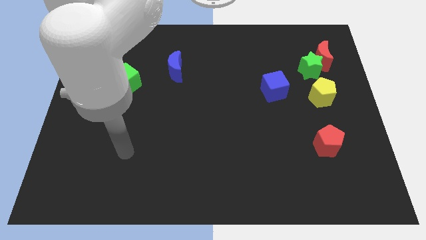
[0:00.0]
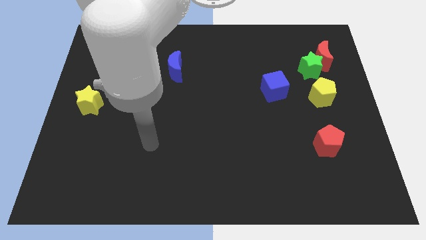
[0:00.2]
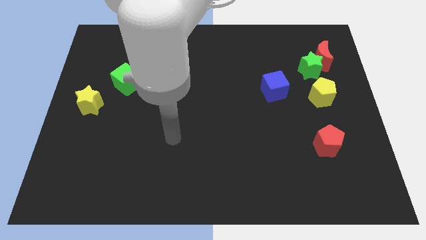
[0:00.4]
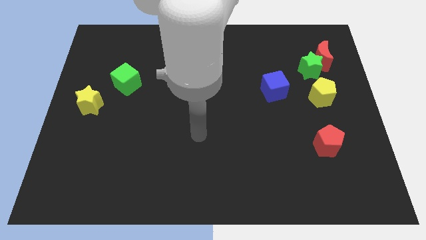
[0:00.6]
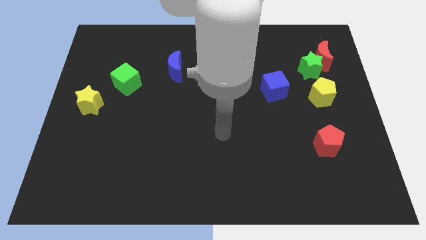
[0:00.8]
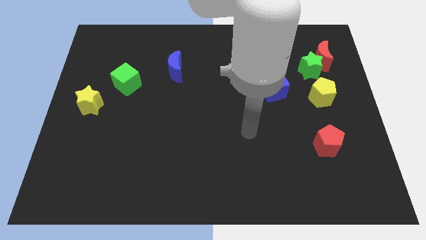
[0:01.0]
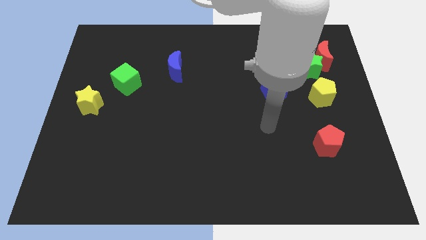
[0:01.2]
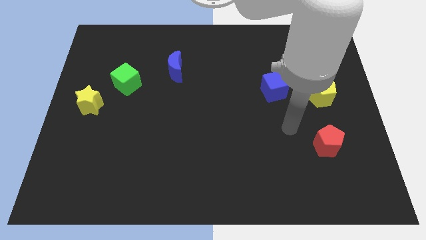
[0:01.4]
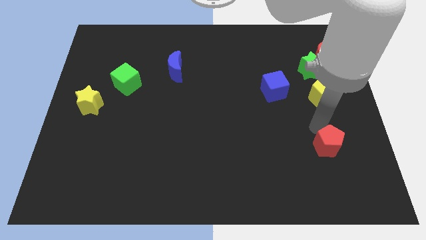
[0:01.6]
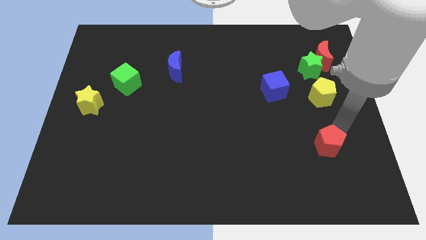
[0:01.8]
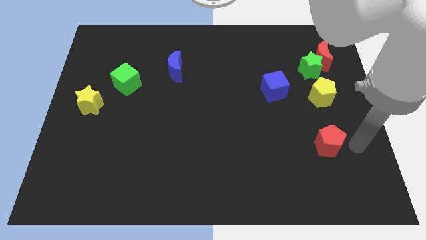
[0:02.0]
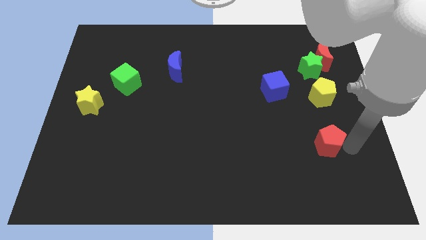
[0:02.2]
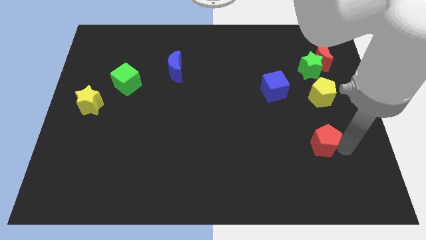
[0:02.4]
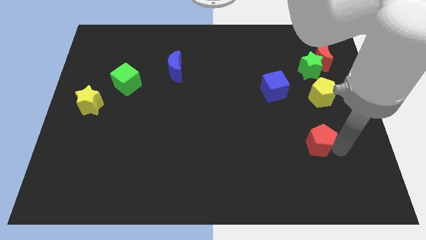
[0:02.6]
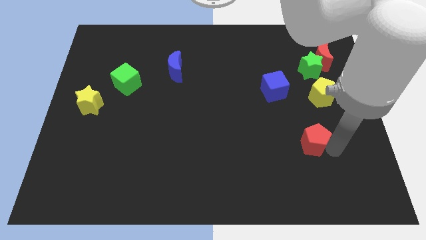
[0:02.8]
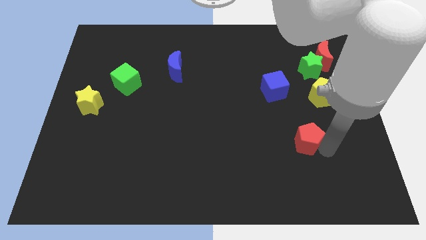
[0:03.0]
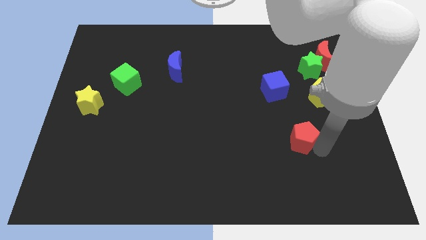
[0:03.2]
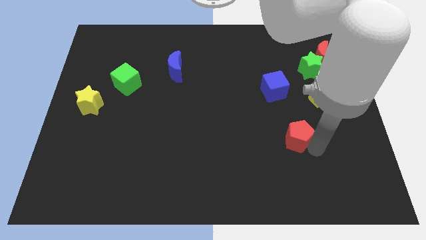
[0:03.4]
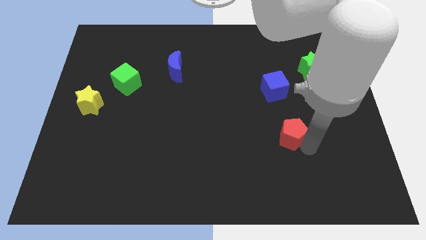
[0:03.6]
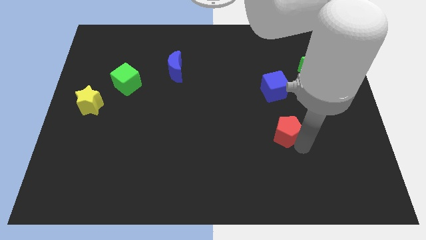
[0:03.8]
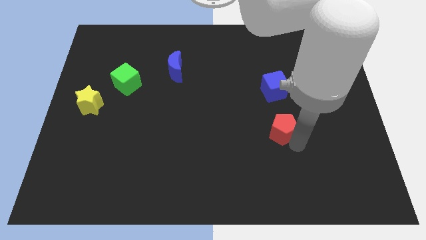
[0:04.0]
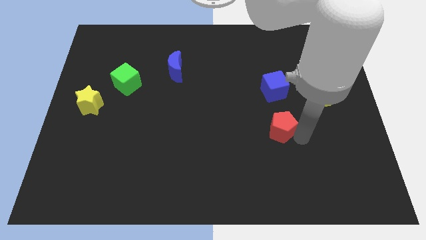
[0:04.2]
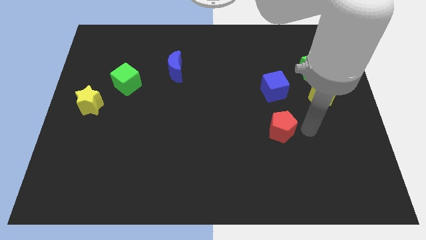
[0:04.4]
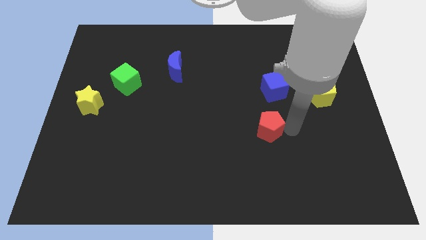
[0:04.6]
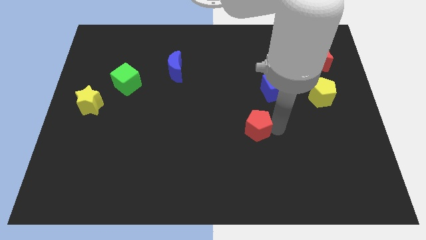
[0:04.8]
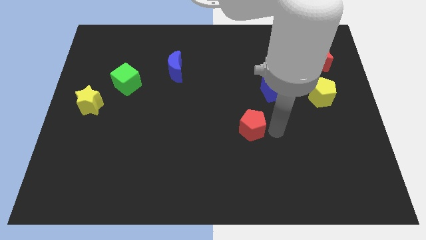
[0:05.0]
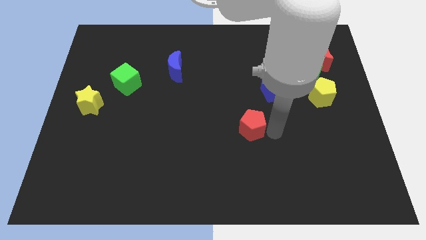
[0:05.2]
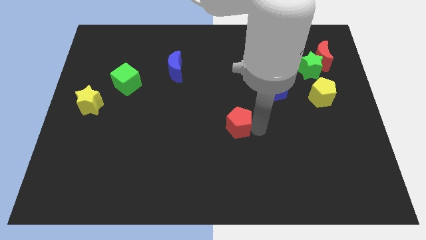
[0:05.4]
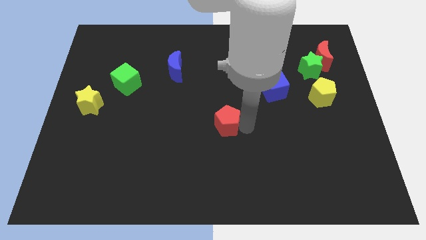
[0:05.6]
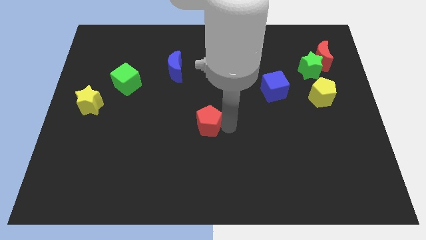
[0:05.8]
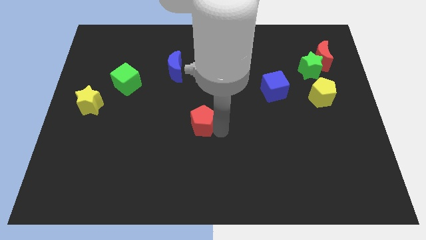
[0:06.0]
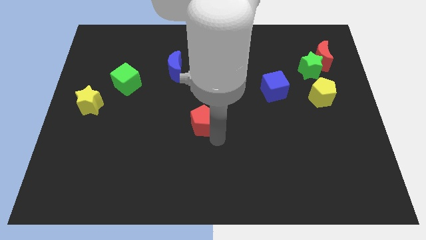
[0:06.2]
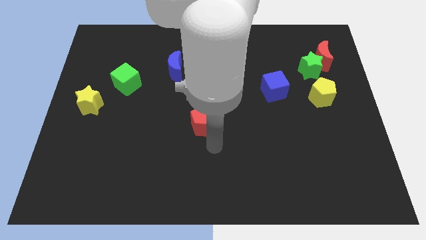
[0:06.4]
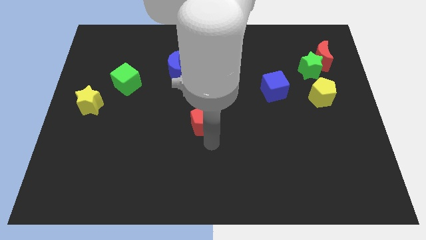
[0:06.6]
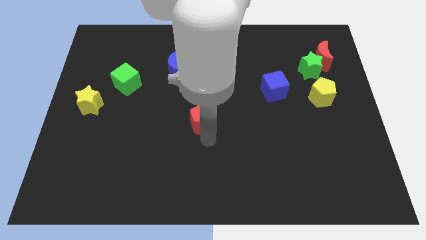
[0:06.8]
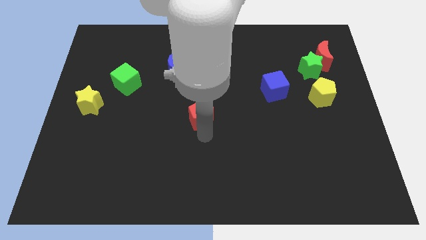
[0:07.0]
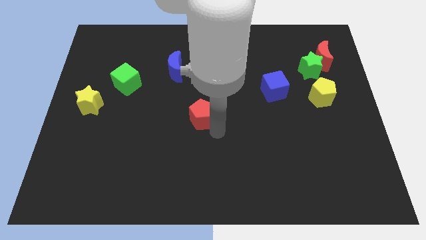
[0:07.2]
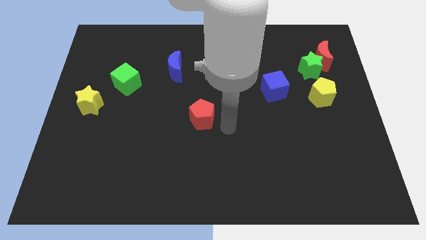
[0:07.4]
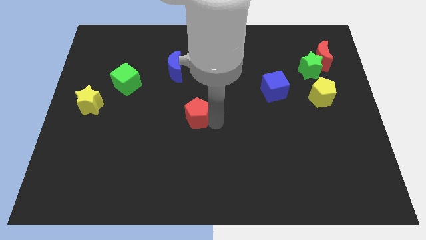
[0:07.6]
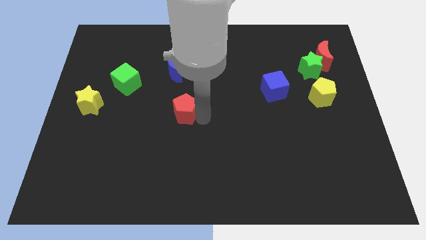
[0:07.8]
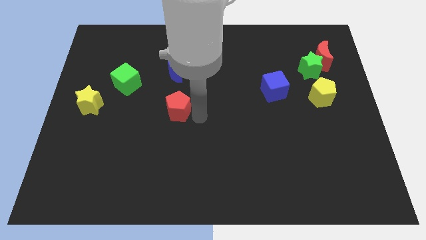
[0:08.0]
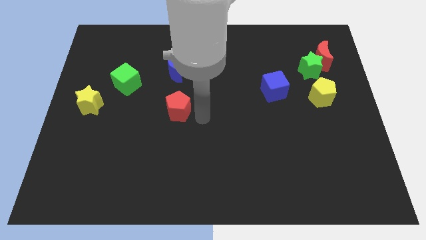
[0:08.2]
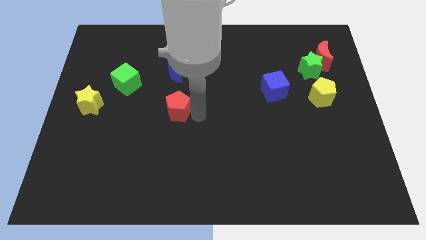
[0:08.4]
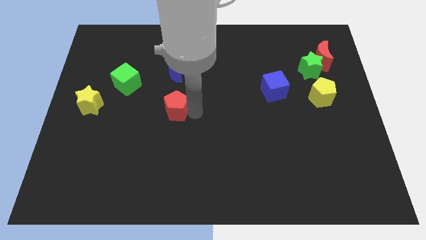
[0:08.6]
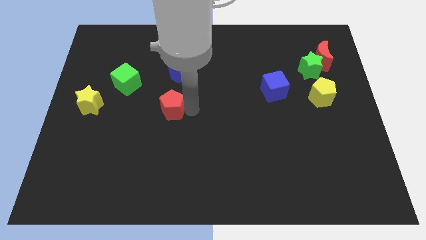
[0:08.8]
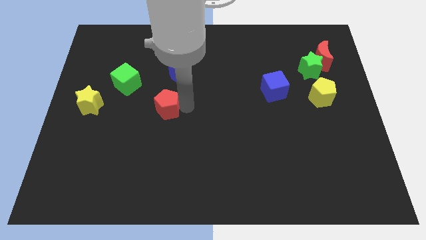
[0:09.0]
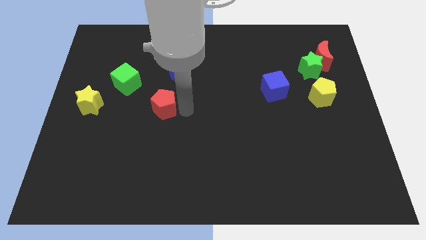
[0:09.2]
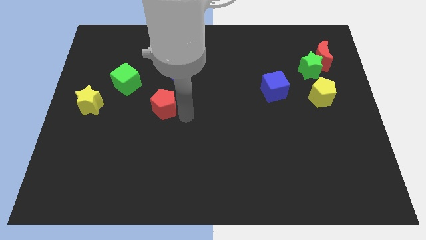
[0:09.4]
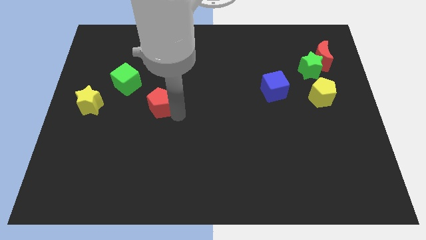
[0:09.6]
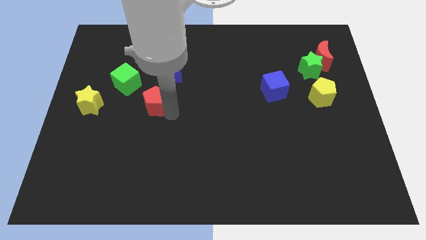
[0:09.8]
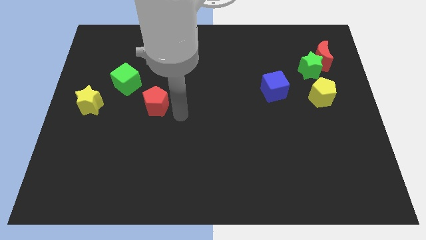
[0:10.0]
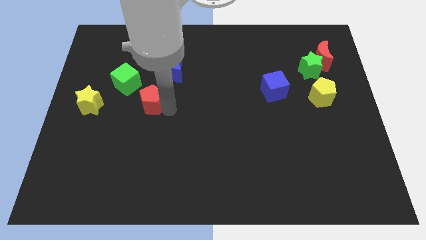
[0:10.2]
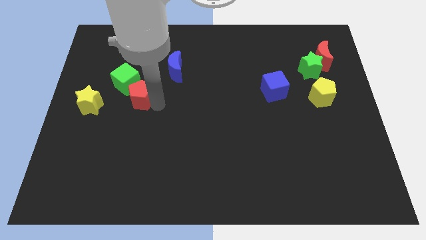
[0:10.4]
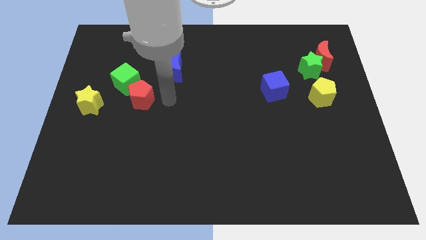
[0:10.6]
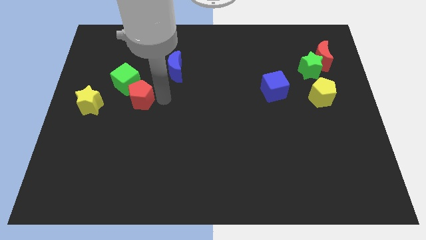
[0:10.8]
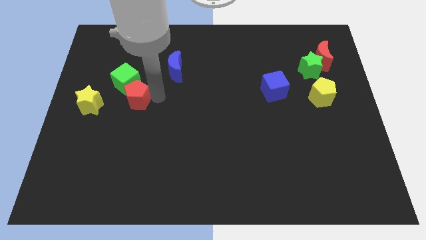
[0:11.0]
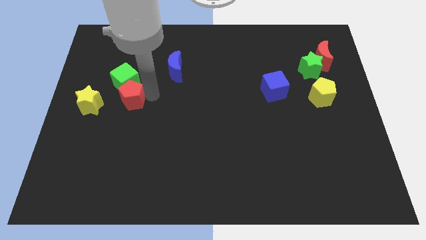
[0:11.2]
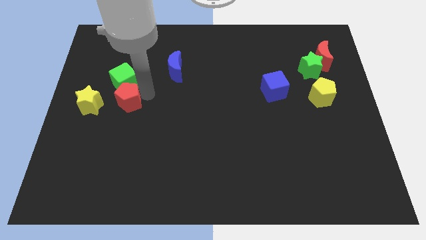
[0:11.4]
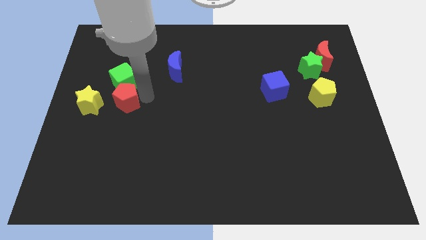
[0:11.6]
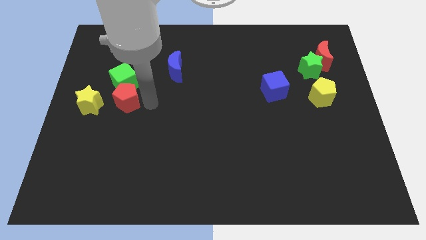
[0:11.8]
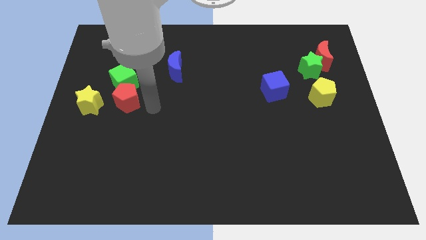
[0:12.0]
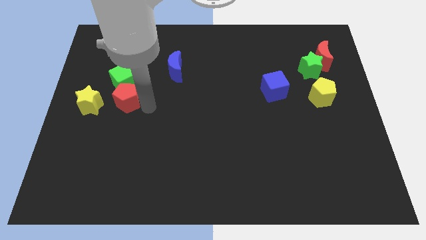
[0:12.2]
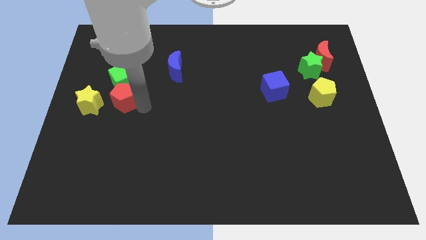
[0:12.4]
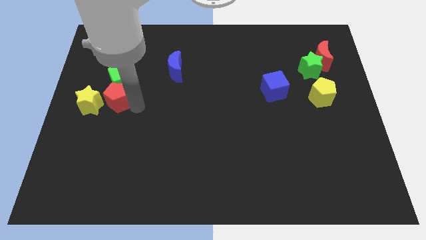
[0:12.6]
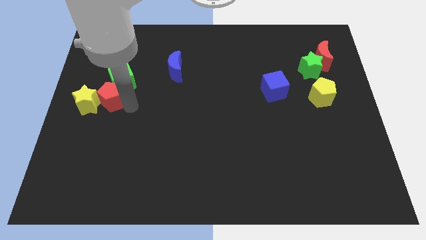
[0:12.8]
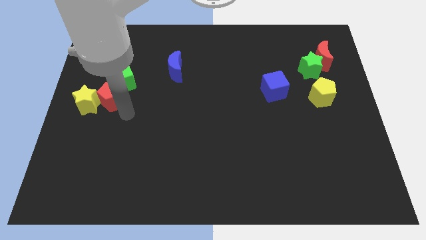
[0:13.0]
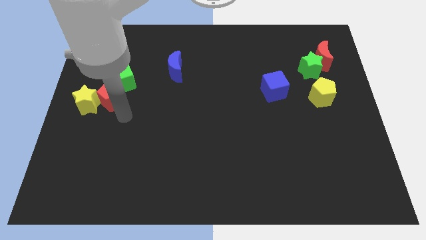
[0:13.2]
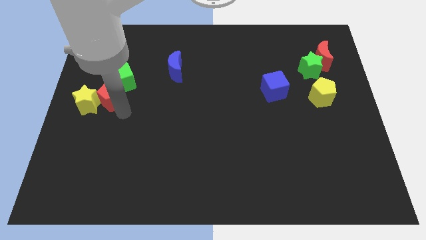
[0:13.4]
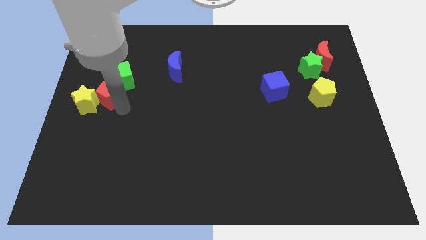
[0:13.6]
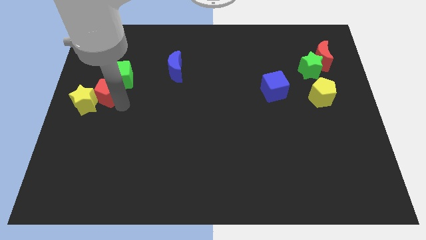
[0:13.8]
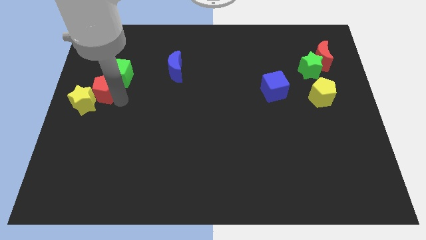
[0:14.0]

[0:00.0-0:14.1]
put the red pentagon above the yellow star

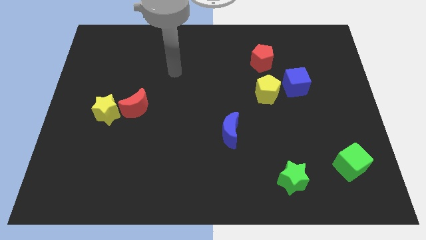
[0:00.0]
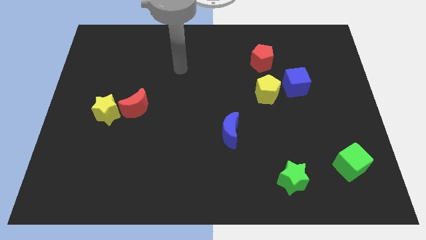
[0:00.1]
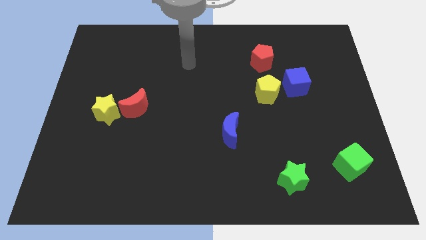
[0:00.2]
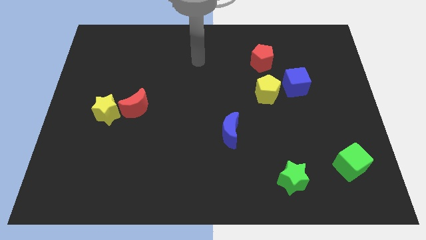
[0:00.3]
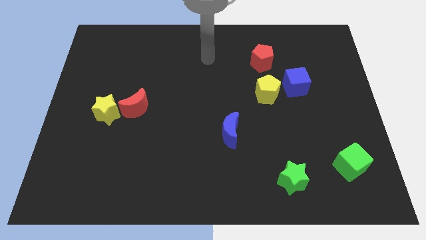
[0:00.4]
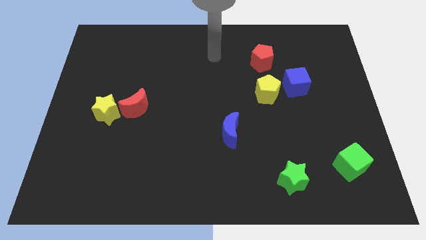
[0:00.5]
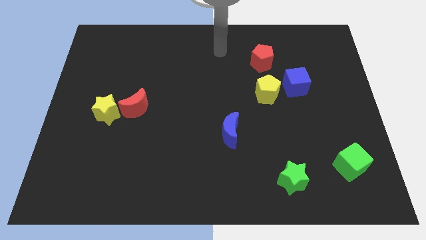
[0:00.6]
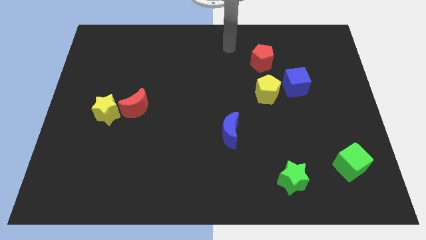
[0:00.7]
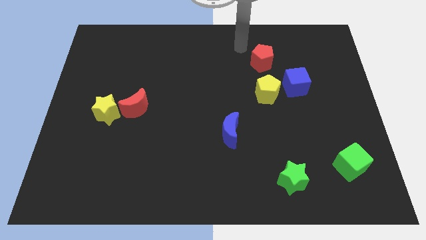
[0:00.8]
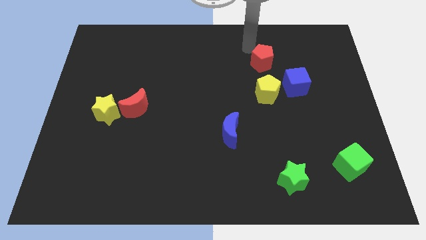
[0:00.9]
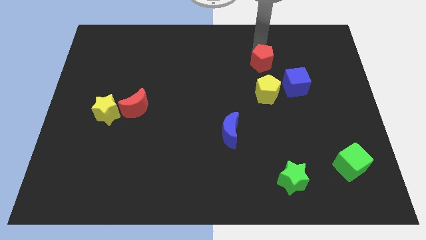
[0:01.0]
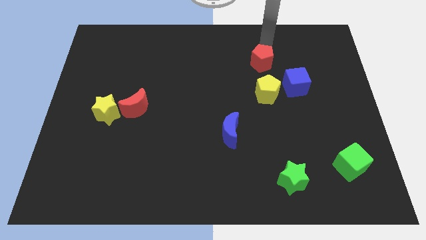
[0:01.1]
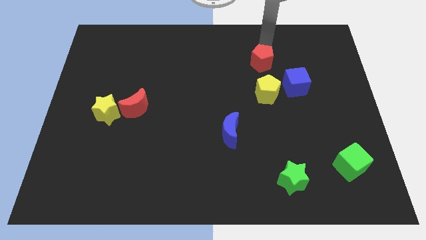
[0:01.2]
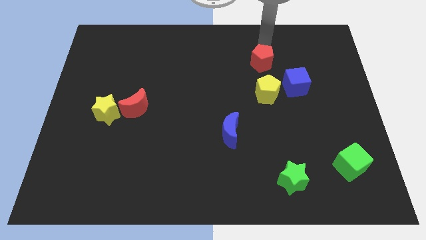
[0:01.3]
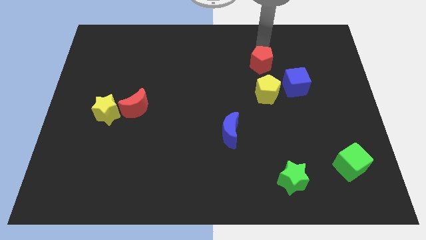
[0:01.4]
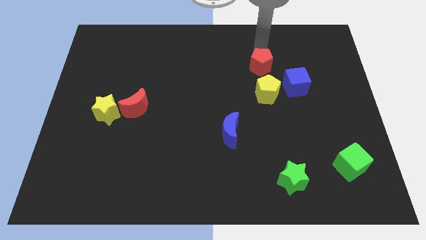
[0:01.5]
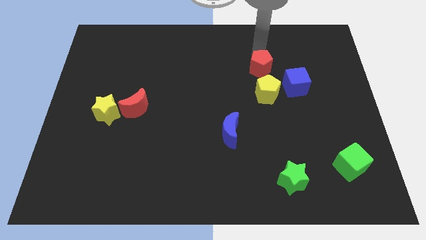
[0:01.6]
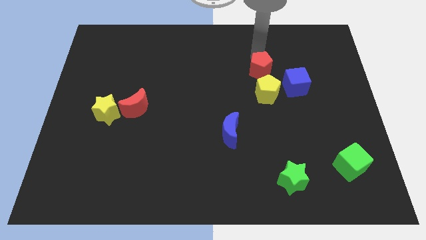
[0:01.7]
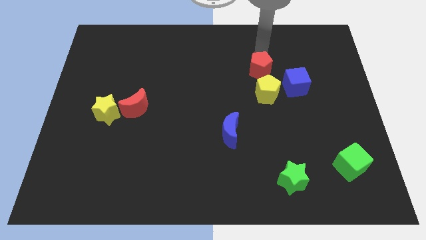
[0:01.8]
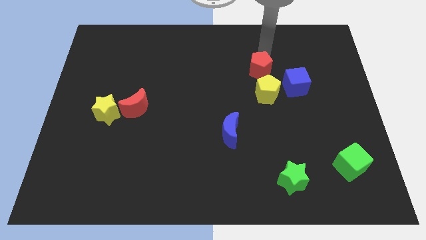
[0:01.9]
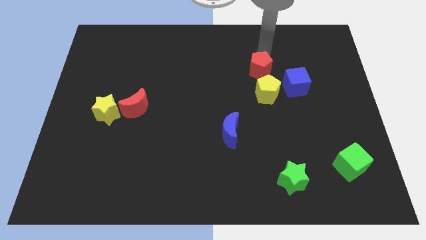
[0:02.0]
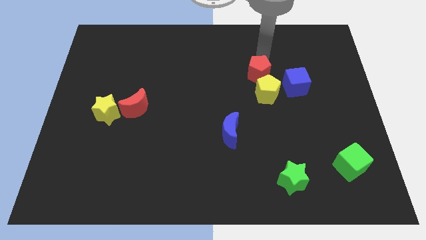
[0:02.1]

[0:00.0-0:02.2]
push the red pentagon just left of the blue cube
